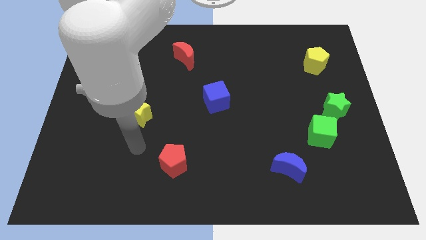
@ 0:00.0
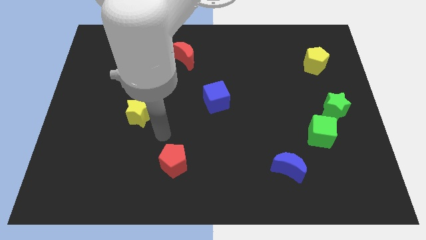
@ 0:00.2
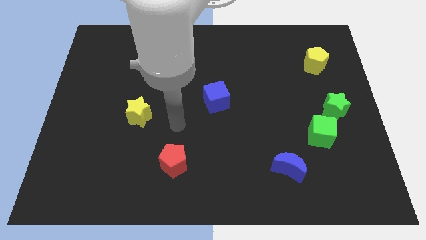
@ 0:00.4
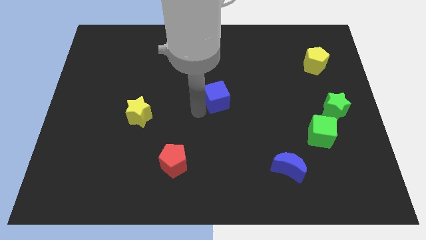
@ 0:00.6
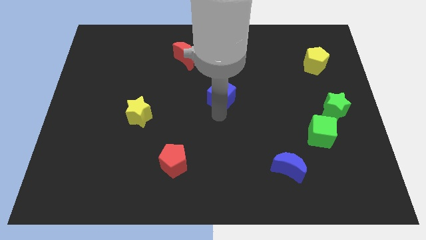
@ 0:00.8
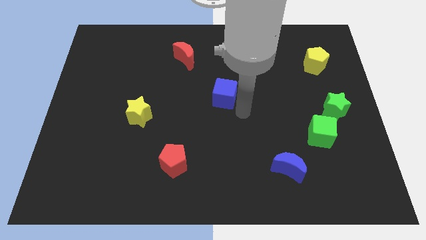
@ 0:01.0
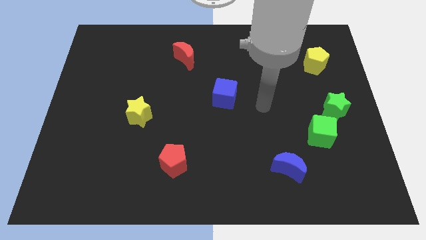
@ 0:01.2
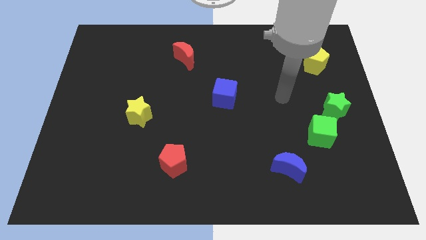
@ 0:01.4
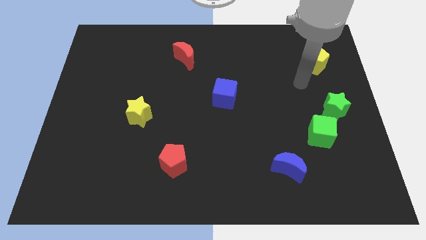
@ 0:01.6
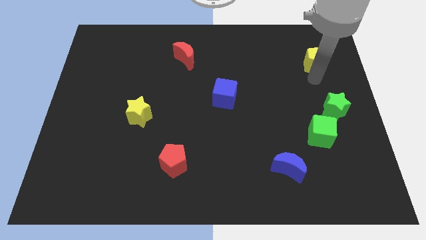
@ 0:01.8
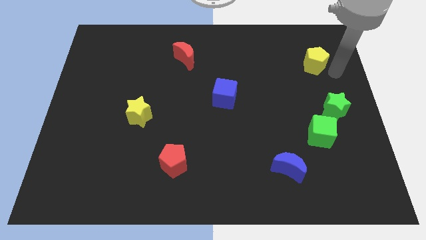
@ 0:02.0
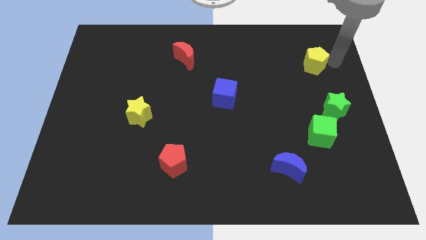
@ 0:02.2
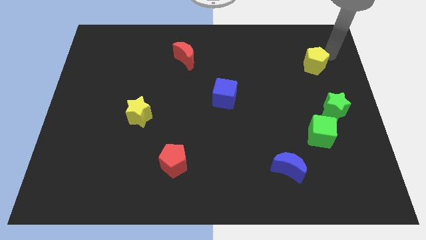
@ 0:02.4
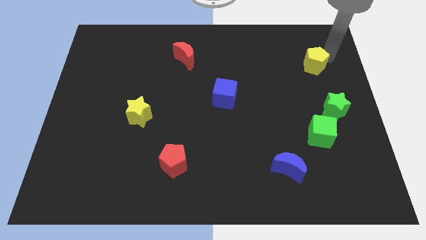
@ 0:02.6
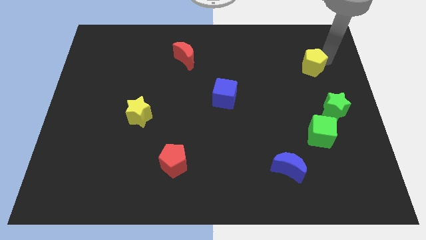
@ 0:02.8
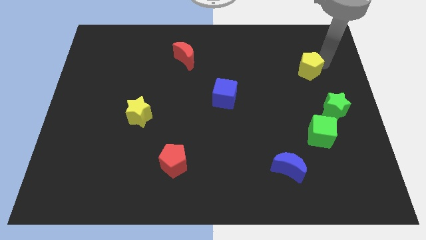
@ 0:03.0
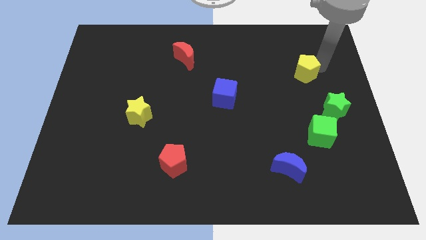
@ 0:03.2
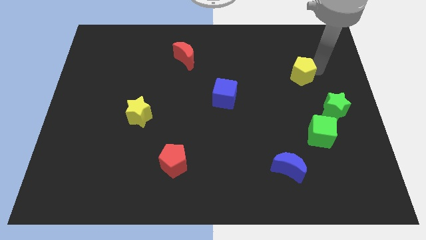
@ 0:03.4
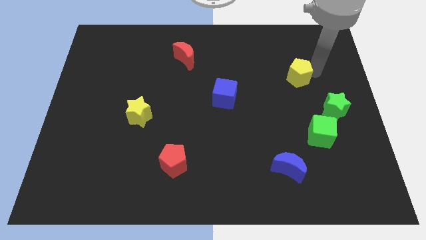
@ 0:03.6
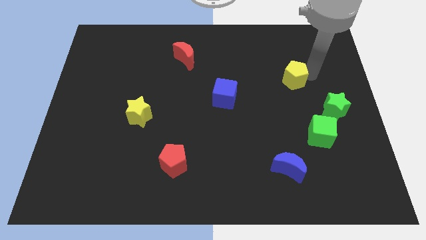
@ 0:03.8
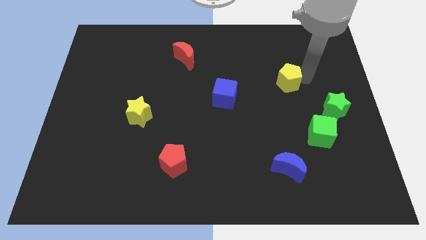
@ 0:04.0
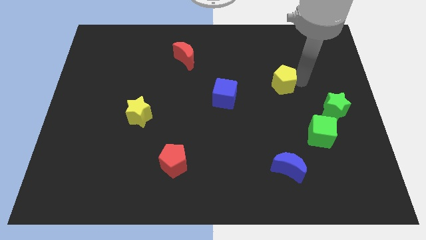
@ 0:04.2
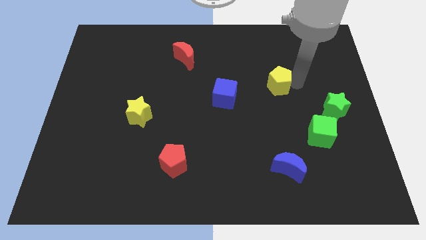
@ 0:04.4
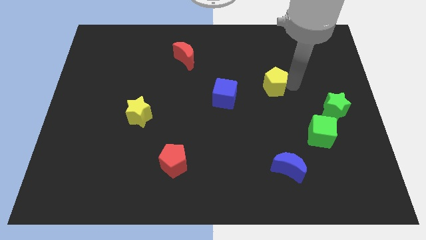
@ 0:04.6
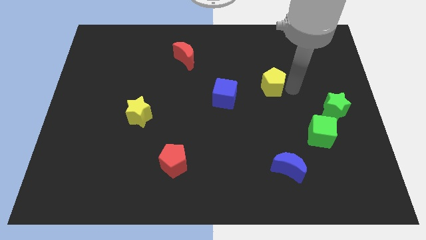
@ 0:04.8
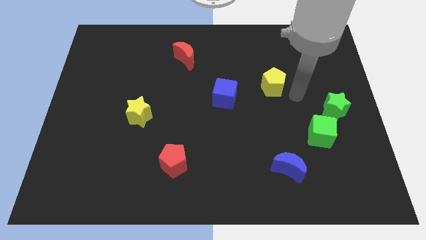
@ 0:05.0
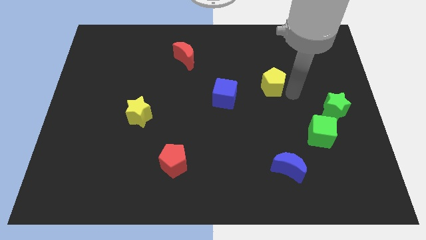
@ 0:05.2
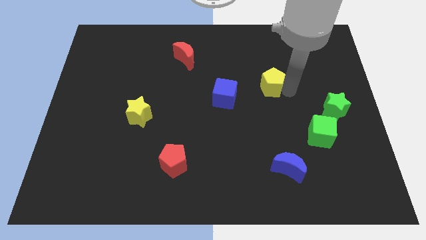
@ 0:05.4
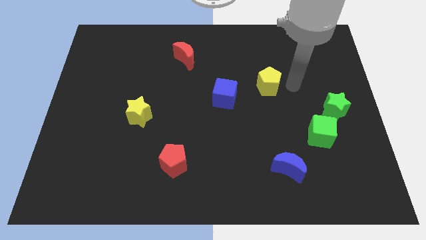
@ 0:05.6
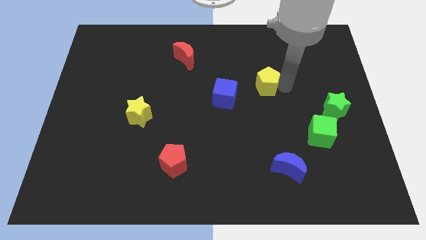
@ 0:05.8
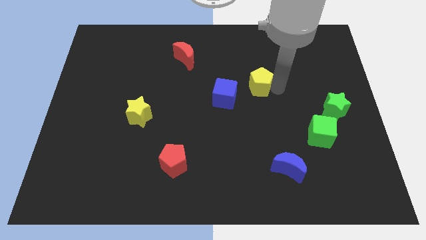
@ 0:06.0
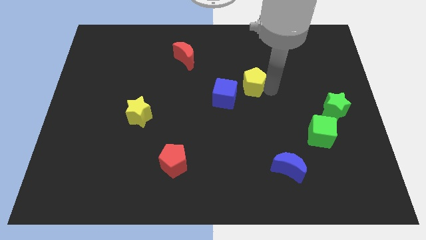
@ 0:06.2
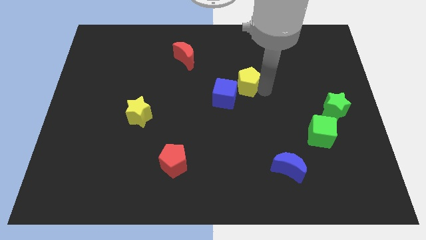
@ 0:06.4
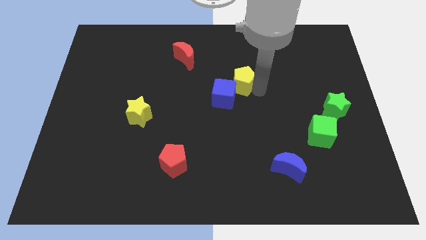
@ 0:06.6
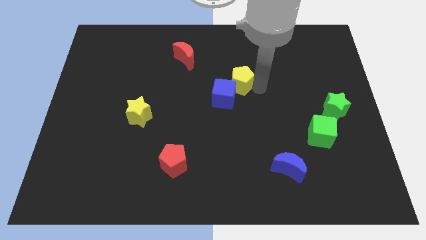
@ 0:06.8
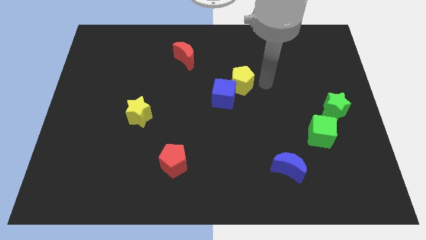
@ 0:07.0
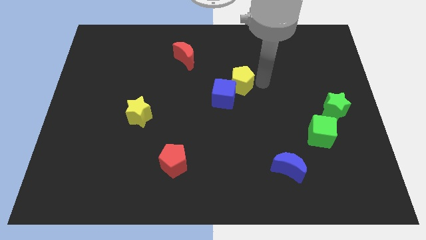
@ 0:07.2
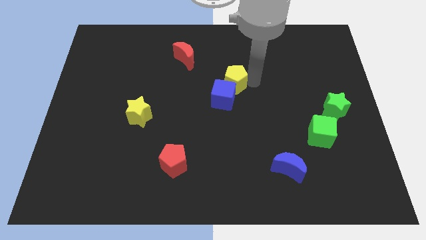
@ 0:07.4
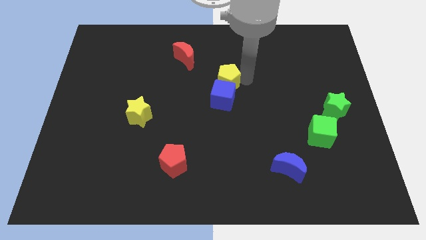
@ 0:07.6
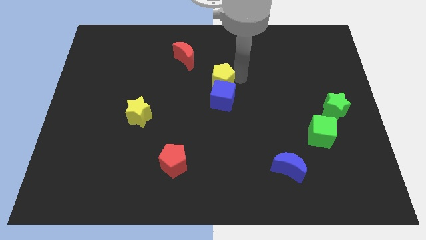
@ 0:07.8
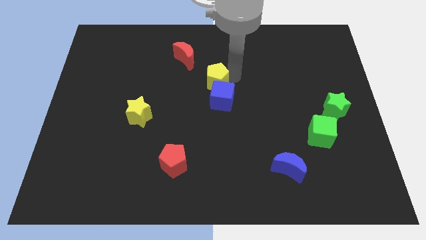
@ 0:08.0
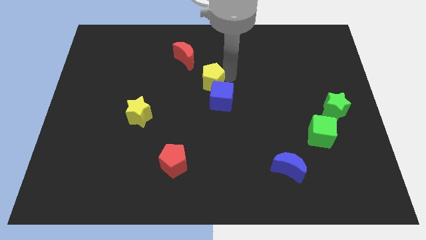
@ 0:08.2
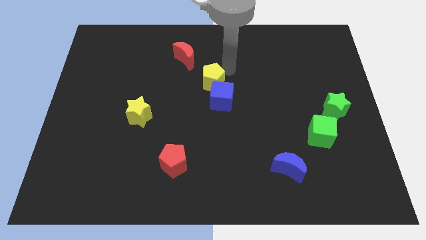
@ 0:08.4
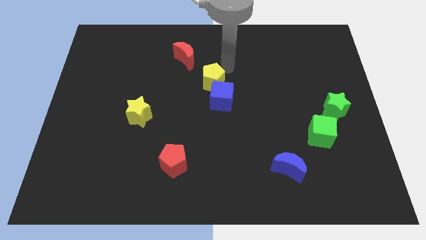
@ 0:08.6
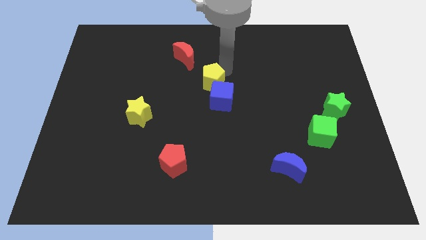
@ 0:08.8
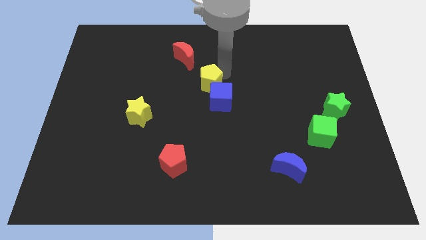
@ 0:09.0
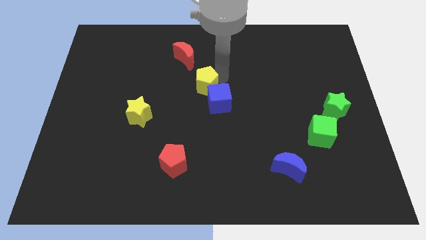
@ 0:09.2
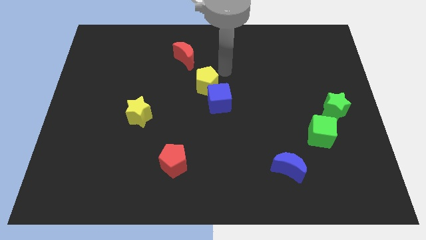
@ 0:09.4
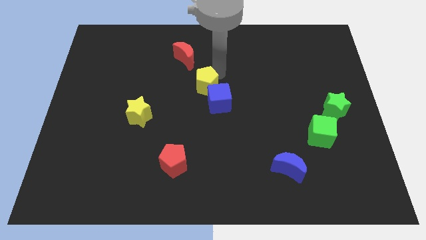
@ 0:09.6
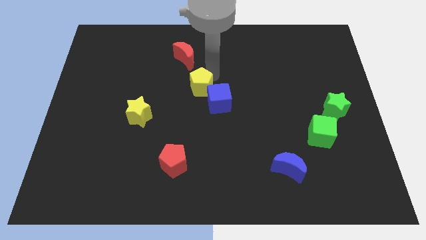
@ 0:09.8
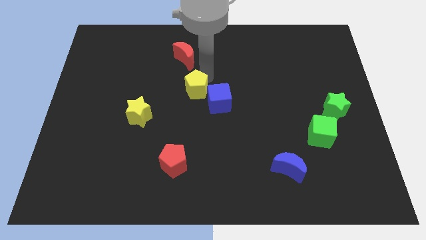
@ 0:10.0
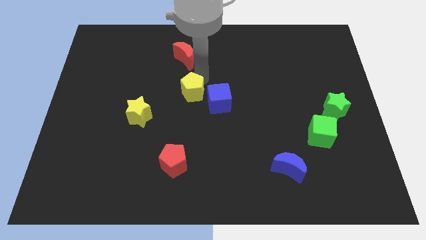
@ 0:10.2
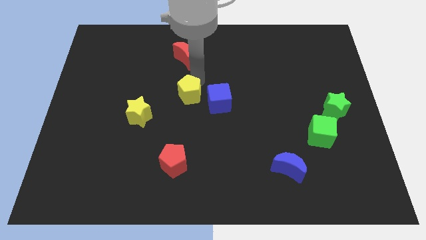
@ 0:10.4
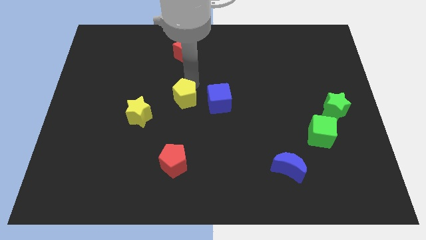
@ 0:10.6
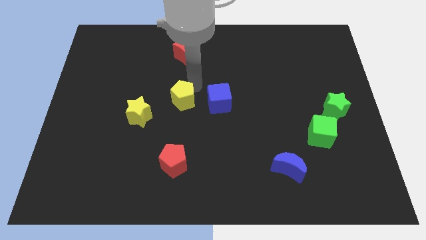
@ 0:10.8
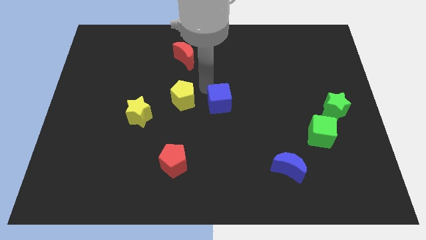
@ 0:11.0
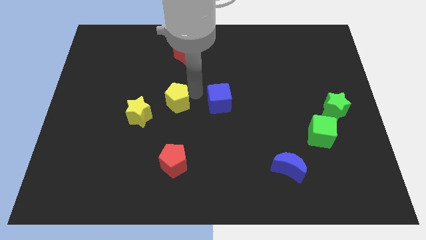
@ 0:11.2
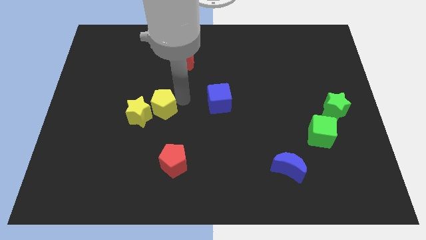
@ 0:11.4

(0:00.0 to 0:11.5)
put the yellow pentagon to the yellow star

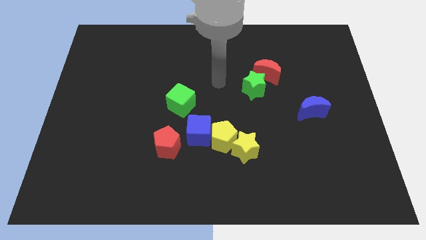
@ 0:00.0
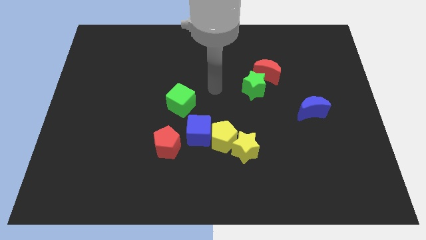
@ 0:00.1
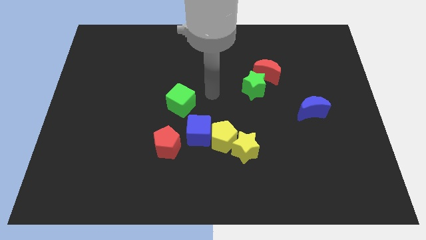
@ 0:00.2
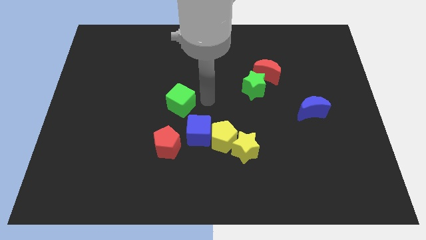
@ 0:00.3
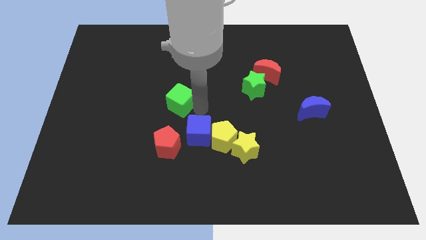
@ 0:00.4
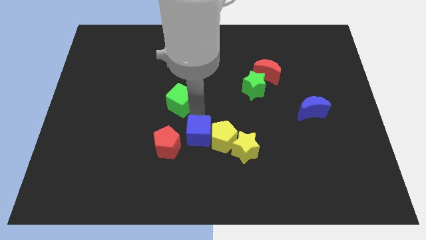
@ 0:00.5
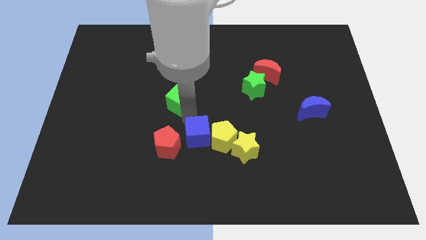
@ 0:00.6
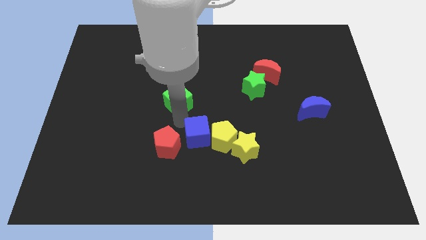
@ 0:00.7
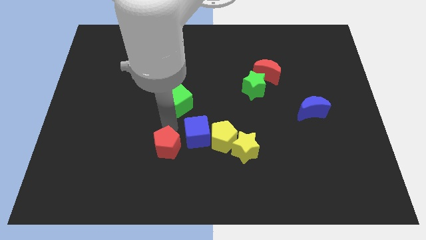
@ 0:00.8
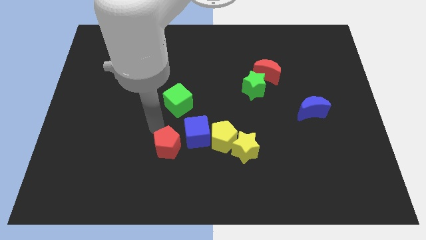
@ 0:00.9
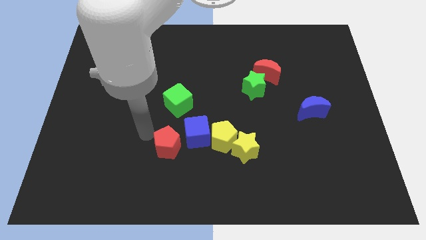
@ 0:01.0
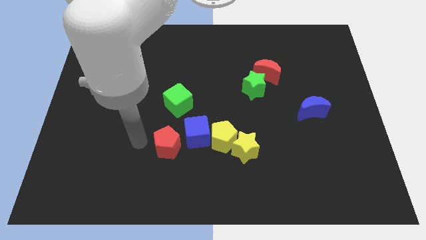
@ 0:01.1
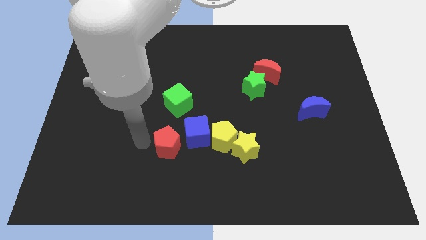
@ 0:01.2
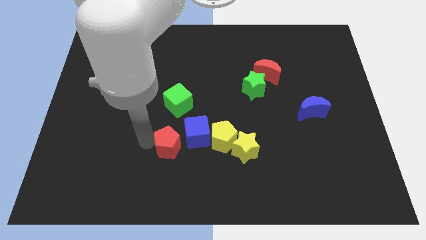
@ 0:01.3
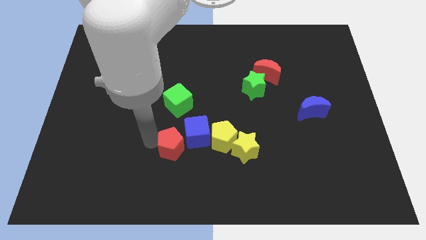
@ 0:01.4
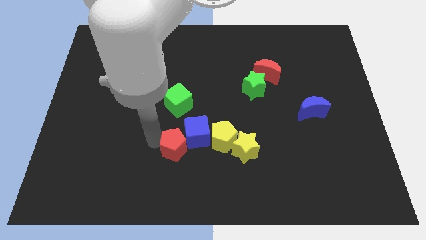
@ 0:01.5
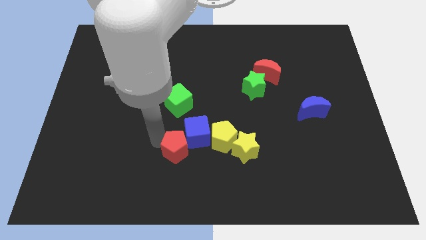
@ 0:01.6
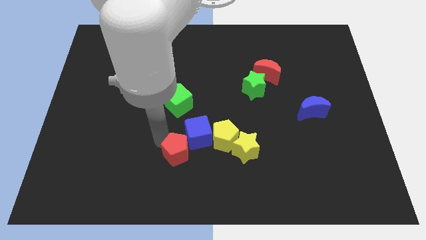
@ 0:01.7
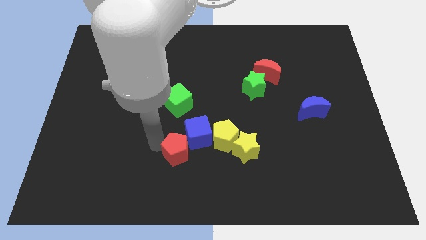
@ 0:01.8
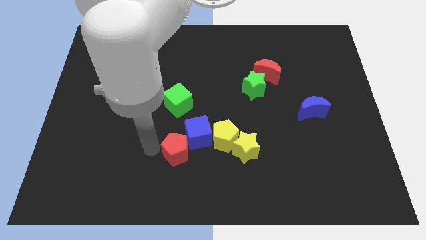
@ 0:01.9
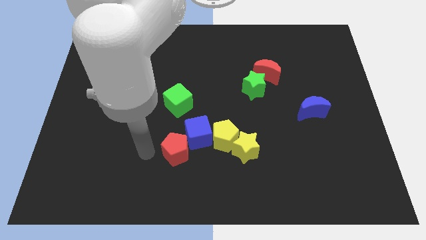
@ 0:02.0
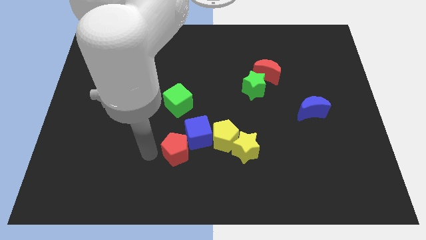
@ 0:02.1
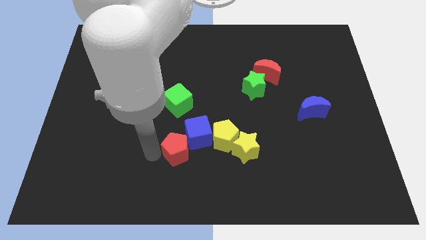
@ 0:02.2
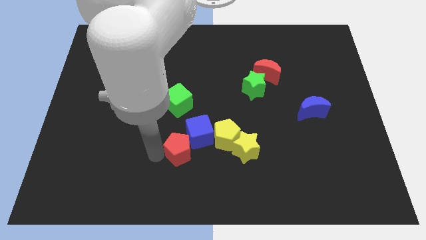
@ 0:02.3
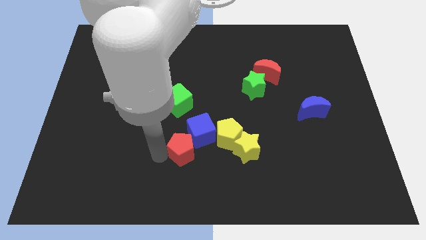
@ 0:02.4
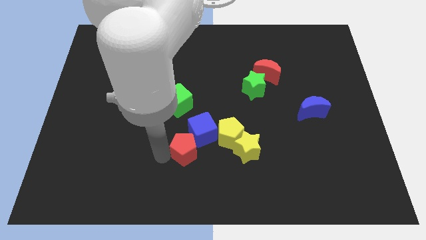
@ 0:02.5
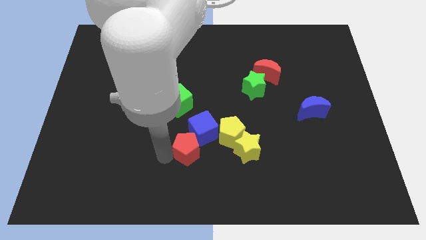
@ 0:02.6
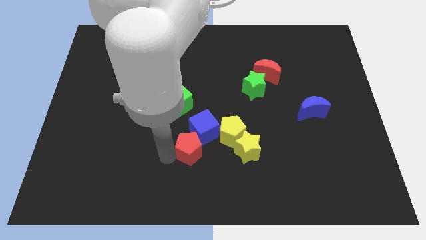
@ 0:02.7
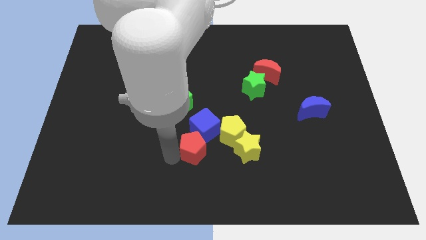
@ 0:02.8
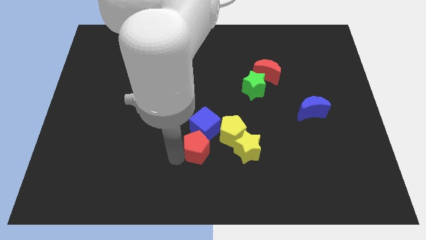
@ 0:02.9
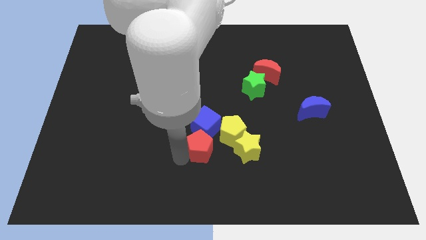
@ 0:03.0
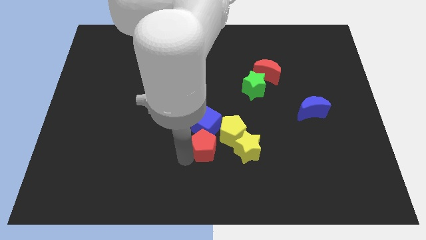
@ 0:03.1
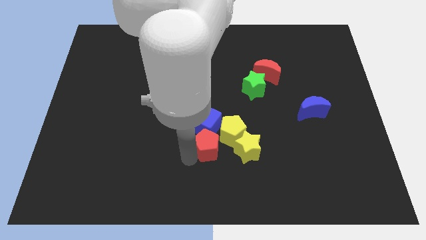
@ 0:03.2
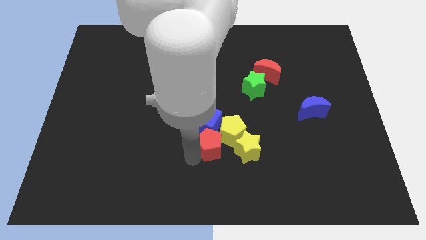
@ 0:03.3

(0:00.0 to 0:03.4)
slide the red pentagon close to the yellow pentagon
